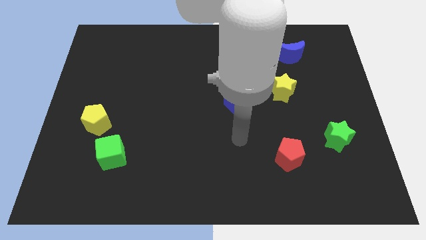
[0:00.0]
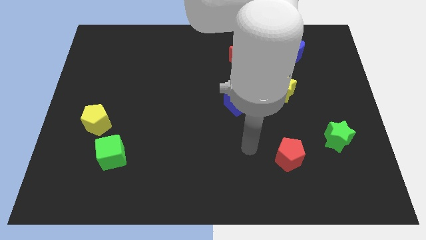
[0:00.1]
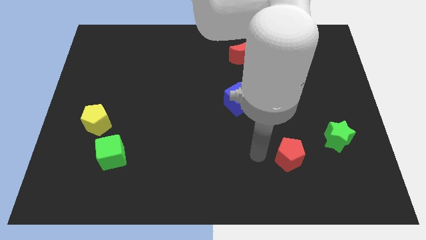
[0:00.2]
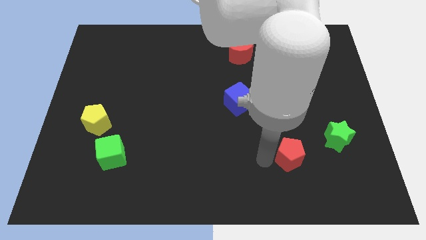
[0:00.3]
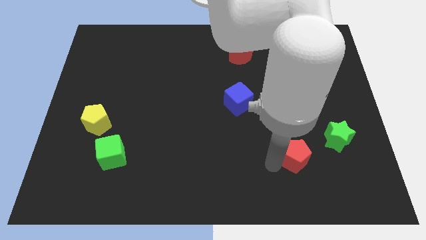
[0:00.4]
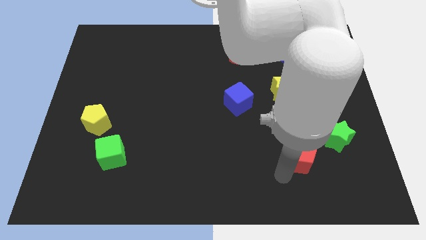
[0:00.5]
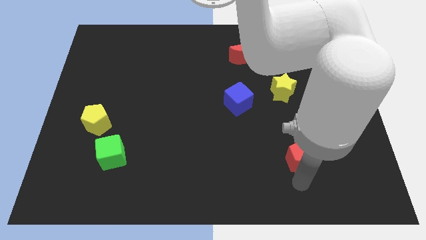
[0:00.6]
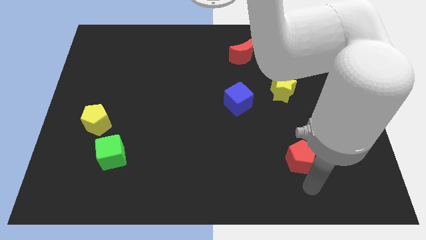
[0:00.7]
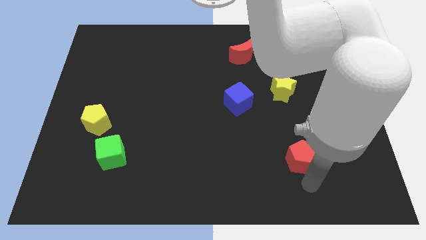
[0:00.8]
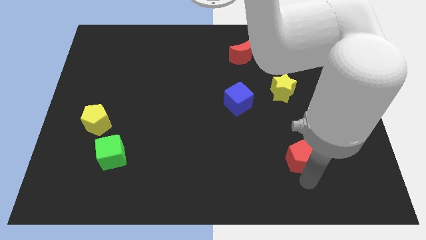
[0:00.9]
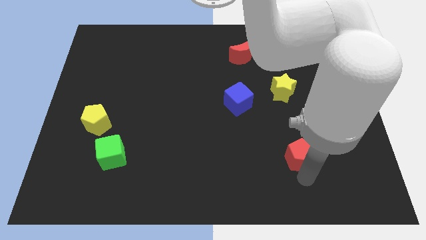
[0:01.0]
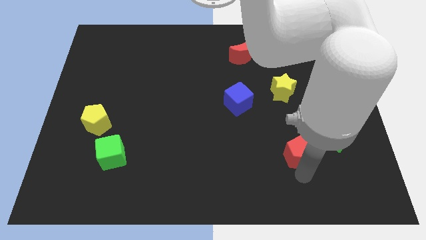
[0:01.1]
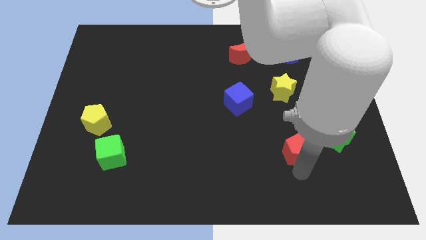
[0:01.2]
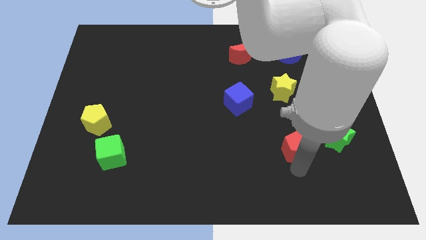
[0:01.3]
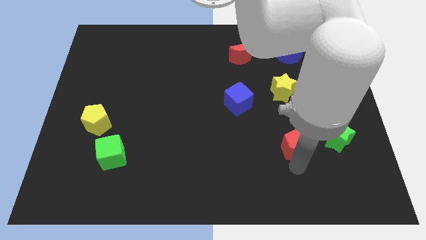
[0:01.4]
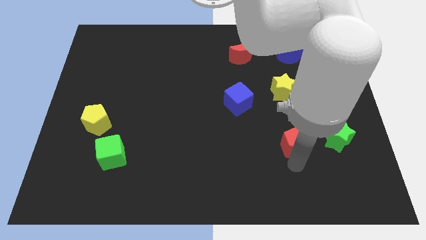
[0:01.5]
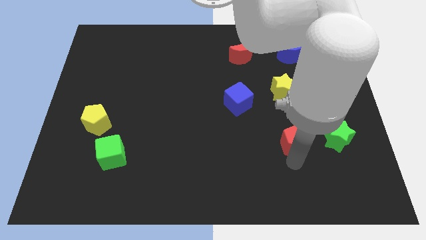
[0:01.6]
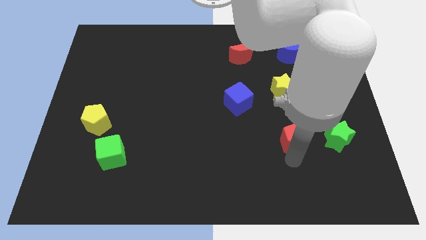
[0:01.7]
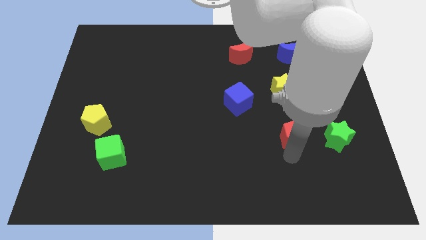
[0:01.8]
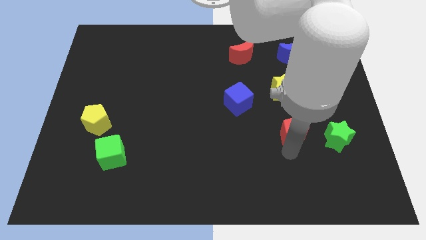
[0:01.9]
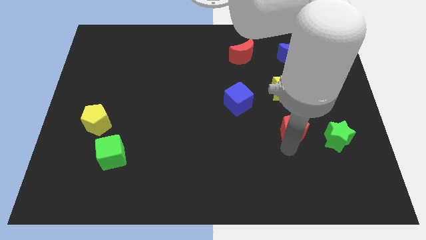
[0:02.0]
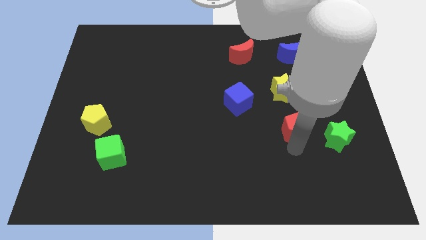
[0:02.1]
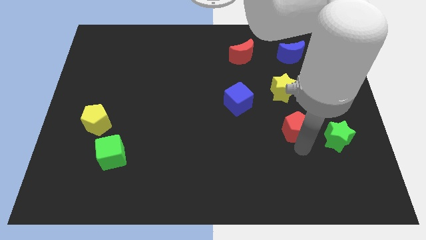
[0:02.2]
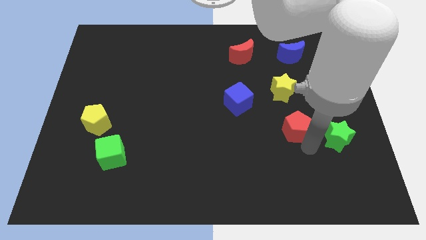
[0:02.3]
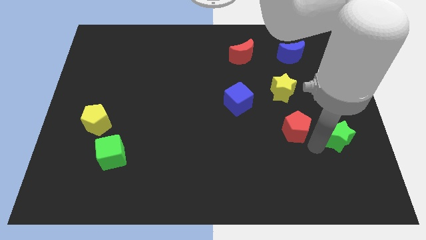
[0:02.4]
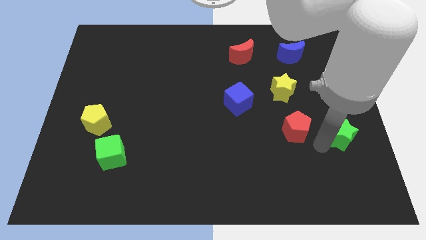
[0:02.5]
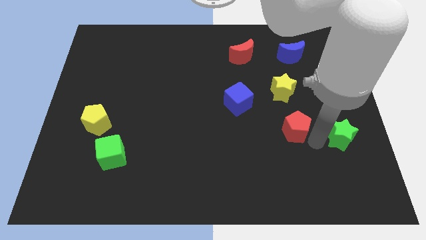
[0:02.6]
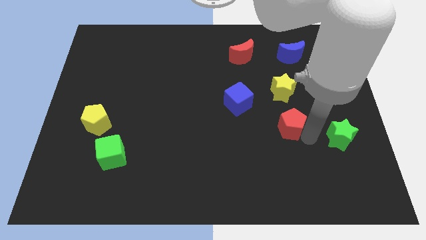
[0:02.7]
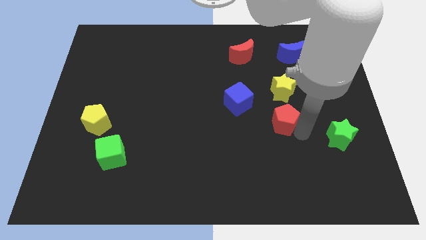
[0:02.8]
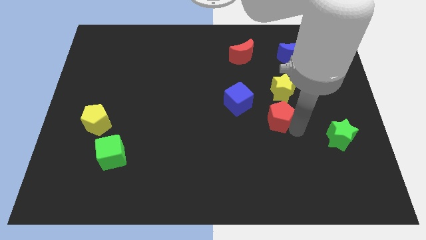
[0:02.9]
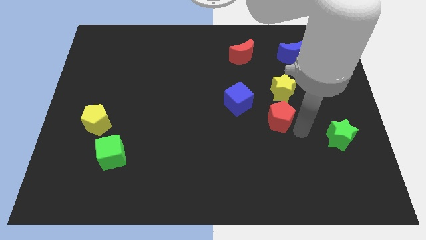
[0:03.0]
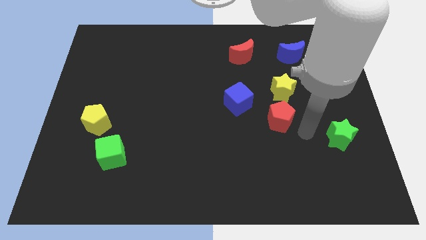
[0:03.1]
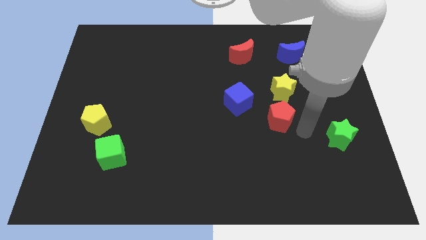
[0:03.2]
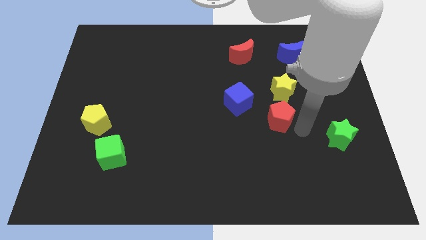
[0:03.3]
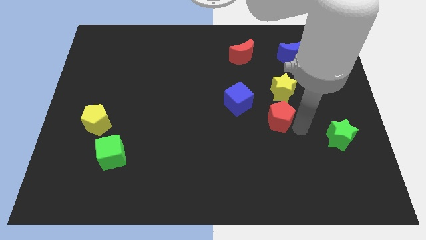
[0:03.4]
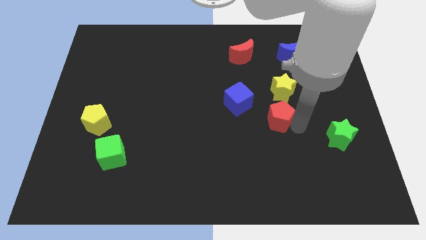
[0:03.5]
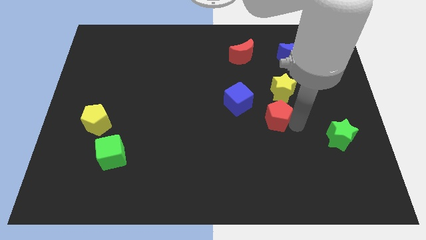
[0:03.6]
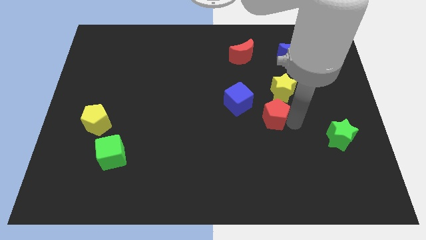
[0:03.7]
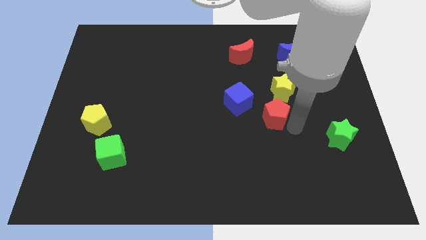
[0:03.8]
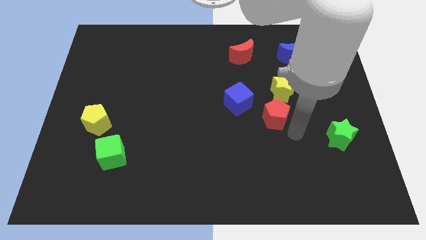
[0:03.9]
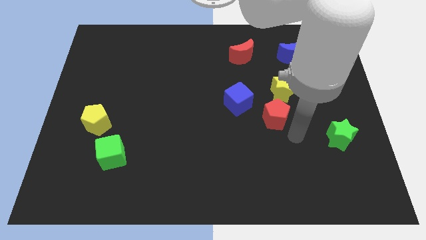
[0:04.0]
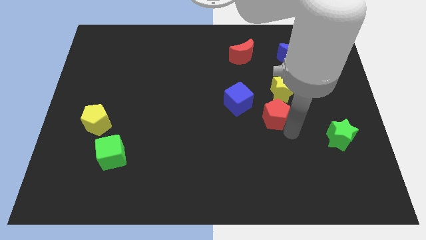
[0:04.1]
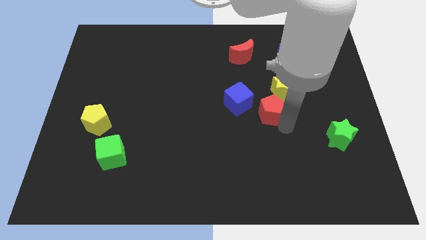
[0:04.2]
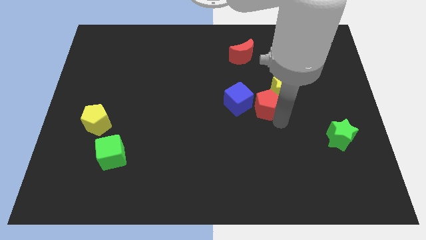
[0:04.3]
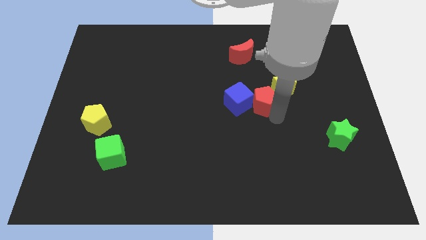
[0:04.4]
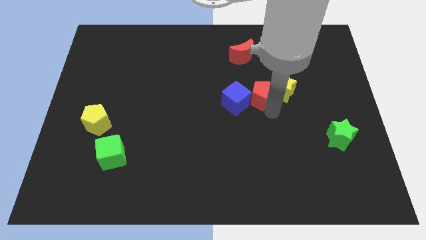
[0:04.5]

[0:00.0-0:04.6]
move the red pentagon to the bottom of the red moon

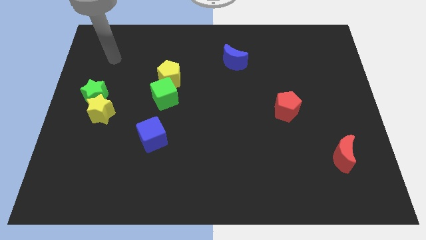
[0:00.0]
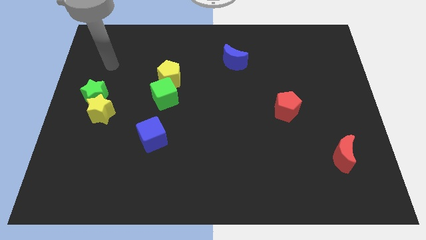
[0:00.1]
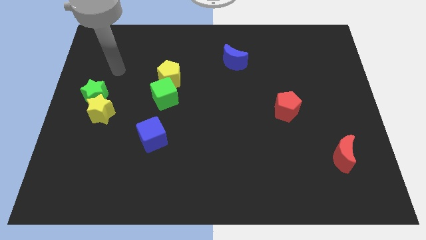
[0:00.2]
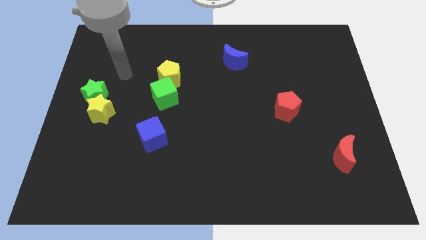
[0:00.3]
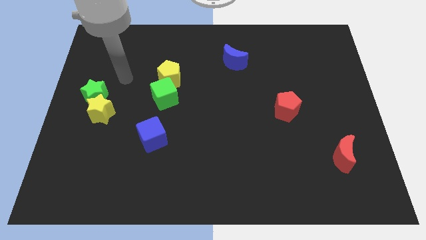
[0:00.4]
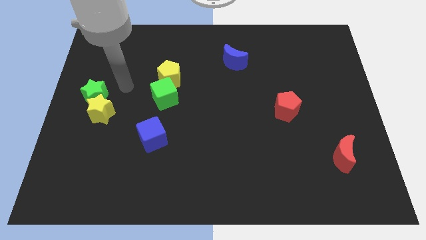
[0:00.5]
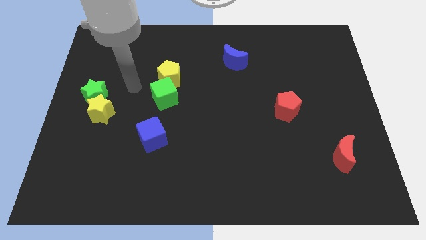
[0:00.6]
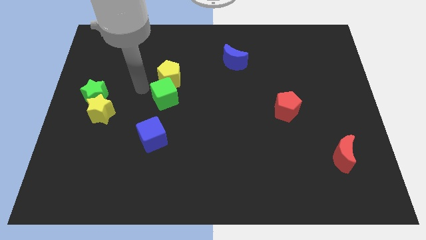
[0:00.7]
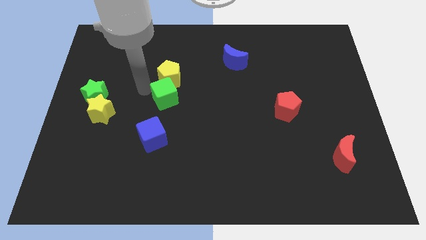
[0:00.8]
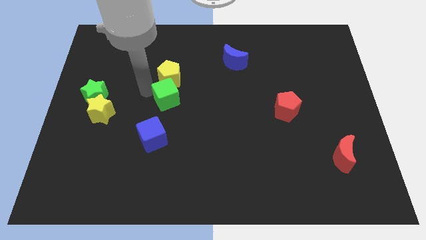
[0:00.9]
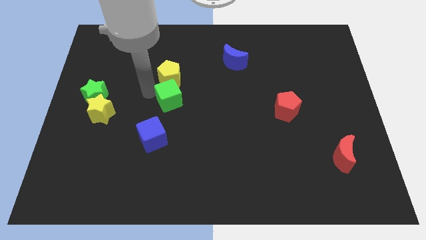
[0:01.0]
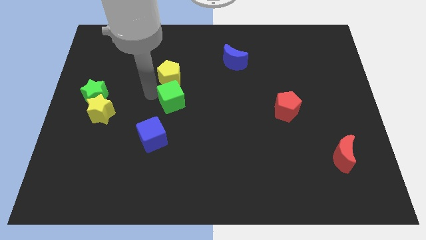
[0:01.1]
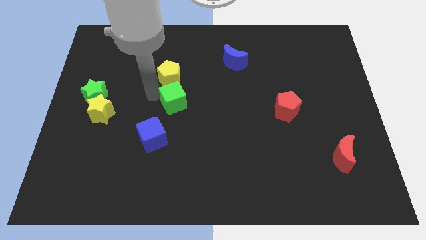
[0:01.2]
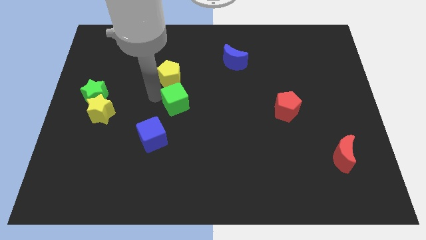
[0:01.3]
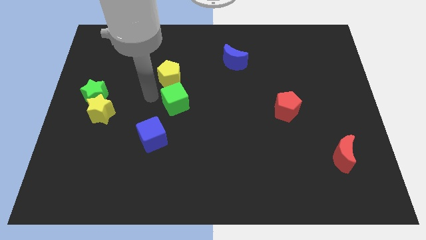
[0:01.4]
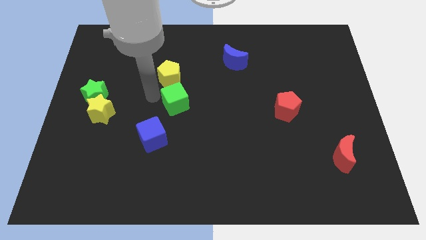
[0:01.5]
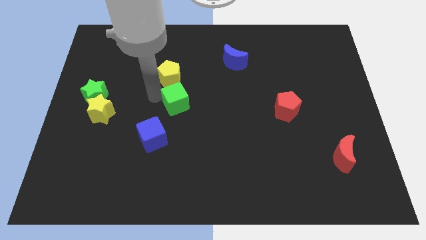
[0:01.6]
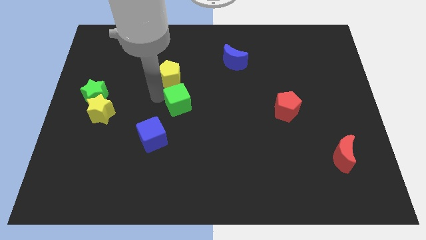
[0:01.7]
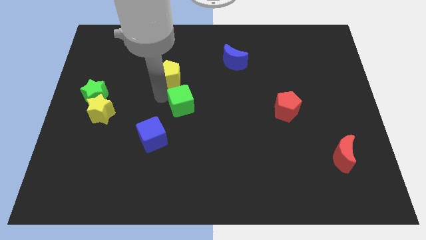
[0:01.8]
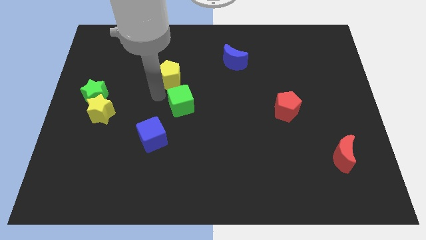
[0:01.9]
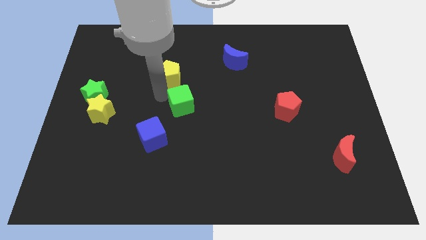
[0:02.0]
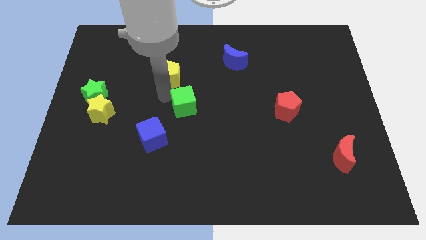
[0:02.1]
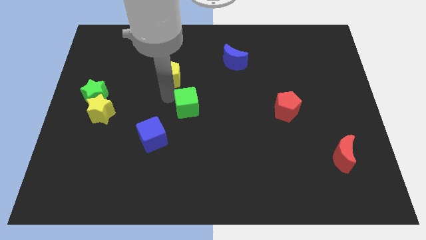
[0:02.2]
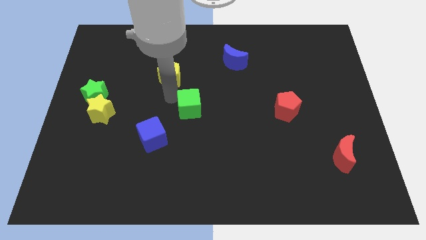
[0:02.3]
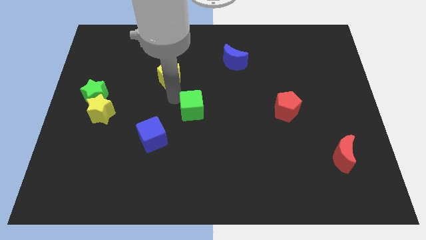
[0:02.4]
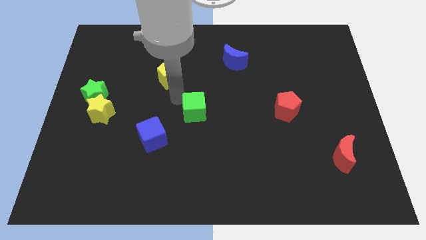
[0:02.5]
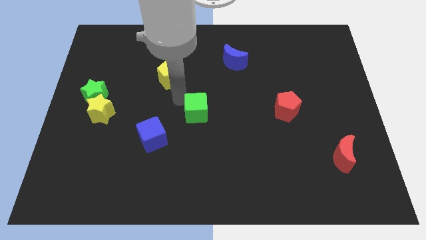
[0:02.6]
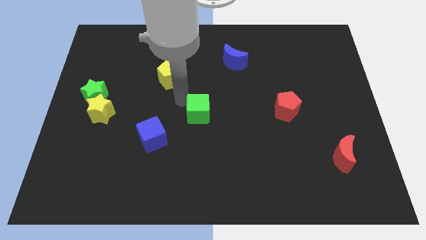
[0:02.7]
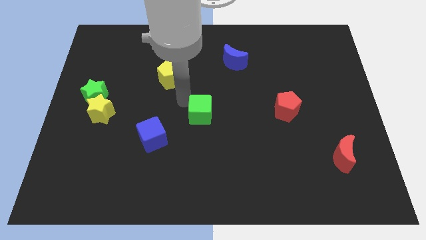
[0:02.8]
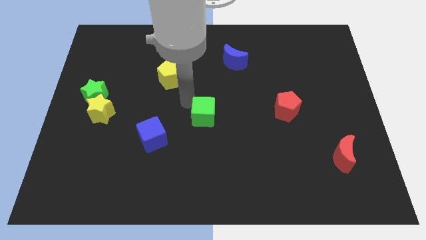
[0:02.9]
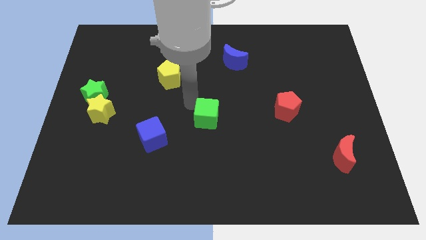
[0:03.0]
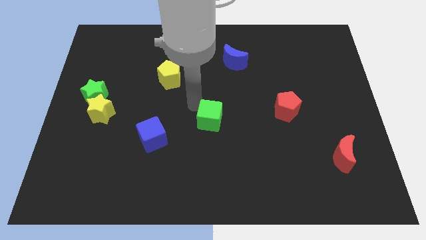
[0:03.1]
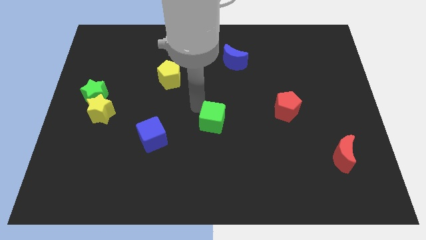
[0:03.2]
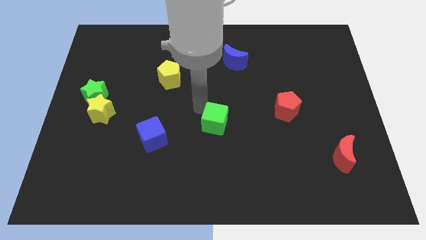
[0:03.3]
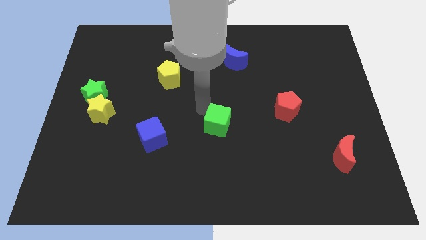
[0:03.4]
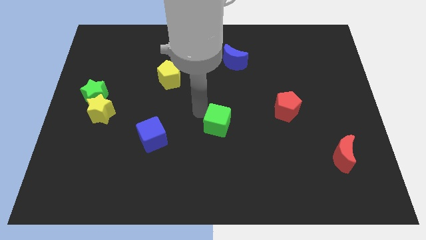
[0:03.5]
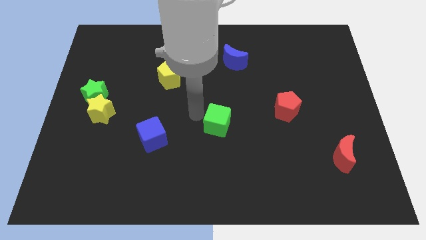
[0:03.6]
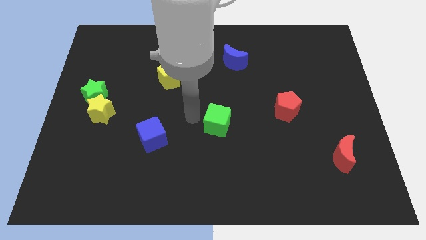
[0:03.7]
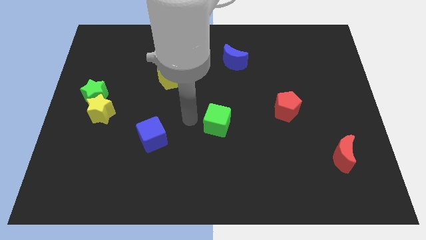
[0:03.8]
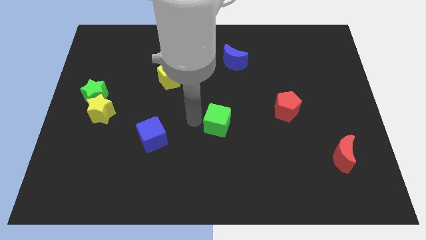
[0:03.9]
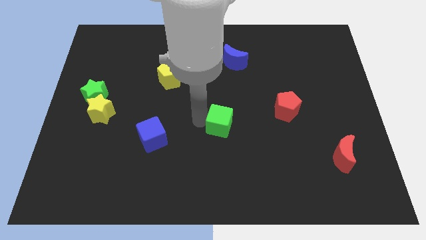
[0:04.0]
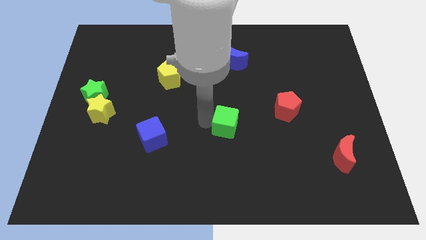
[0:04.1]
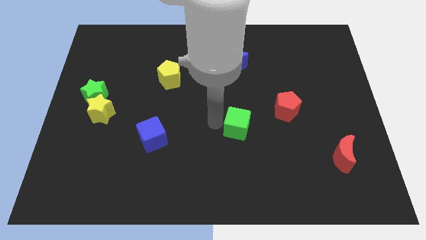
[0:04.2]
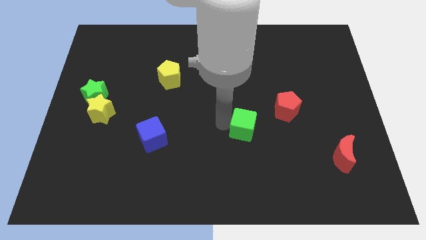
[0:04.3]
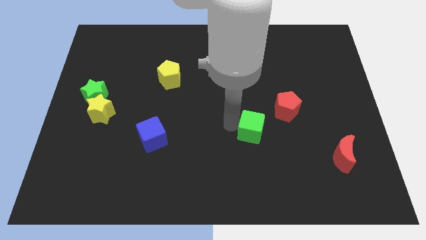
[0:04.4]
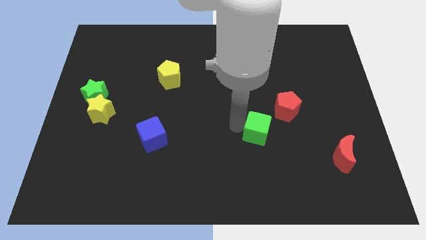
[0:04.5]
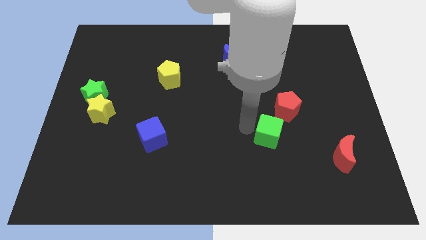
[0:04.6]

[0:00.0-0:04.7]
put the green cube to the bottom side of the red pentagon
